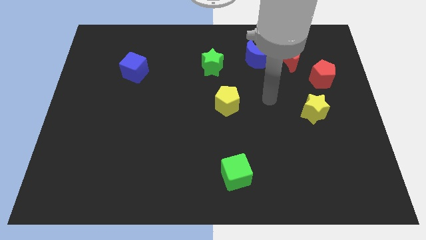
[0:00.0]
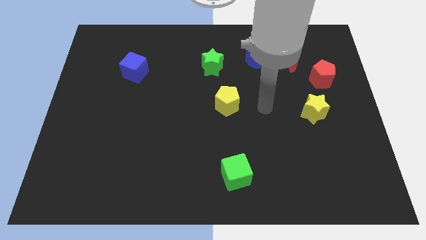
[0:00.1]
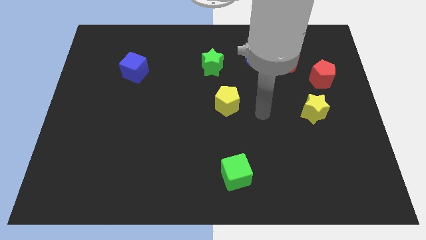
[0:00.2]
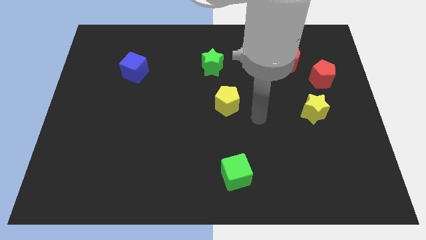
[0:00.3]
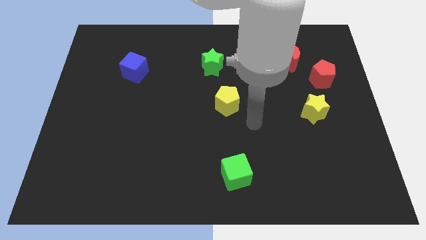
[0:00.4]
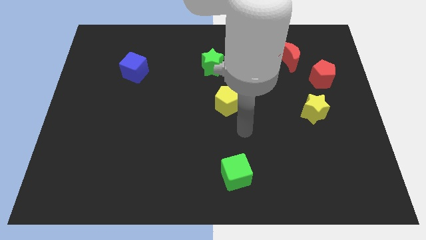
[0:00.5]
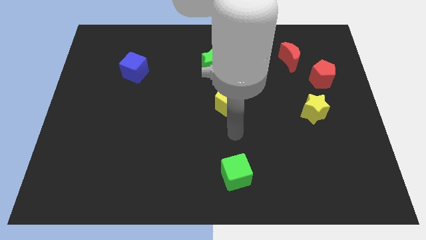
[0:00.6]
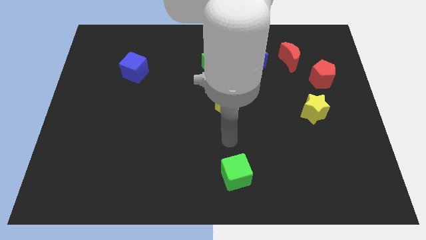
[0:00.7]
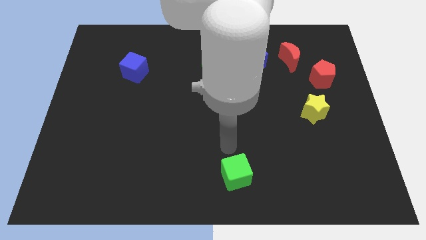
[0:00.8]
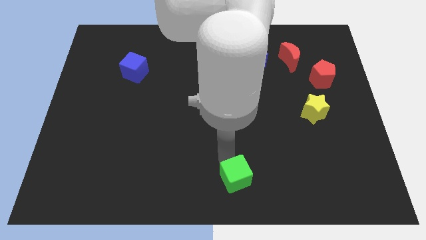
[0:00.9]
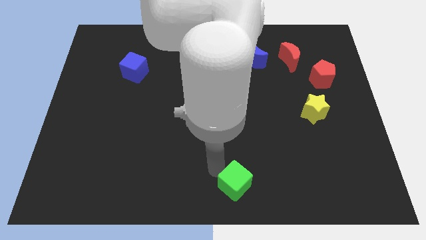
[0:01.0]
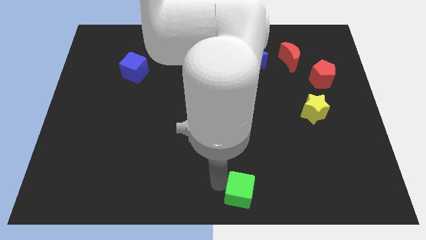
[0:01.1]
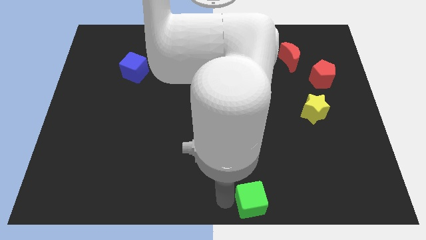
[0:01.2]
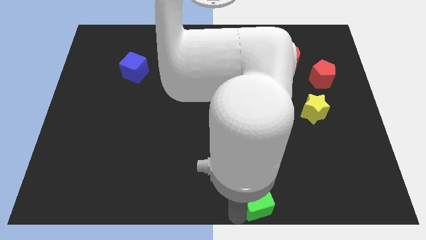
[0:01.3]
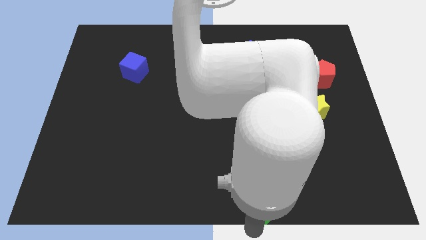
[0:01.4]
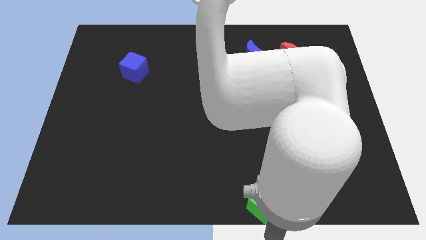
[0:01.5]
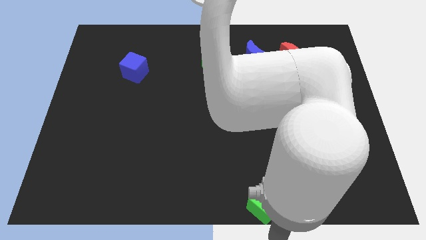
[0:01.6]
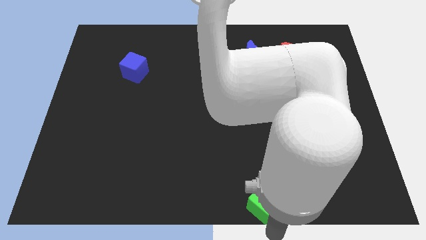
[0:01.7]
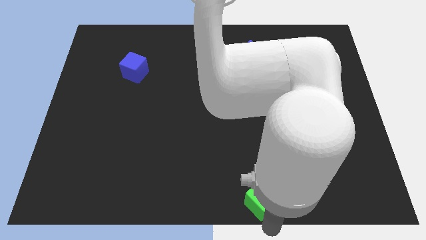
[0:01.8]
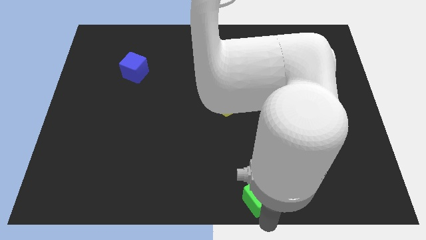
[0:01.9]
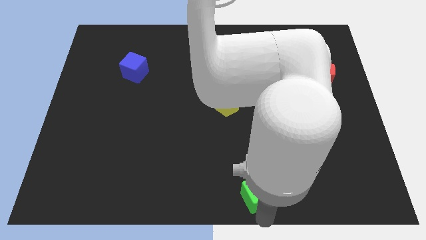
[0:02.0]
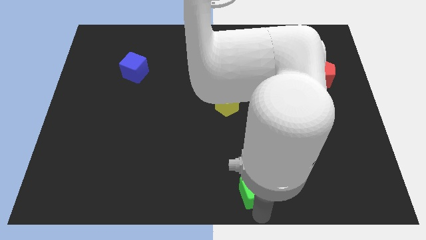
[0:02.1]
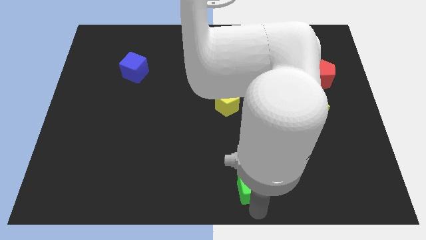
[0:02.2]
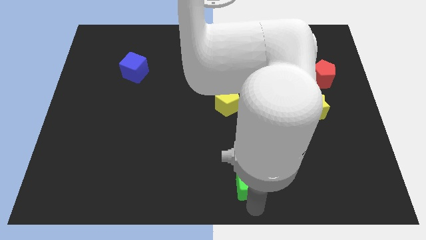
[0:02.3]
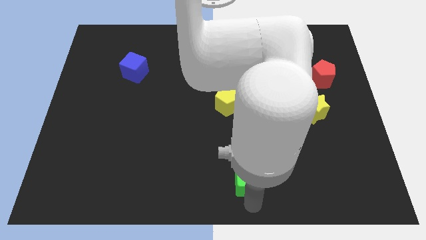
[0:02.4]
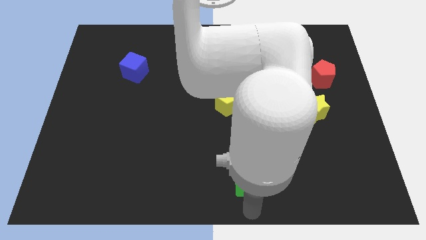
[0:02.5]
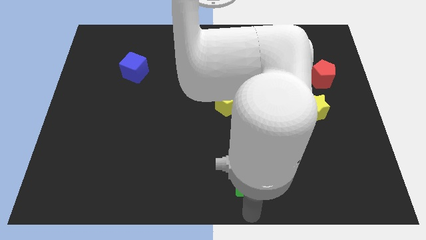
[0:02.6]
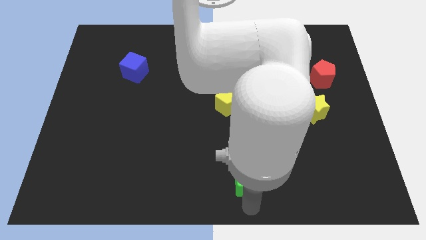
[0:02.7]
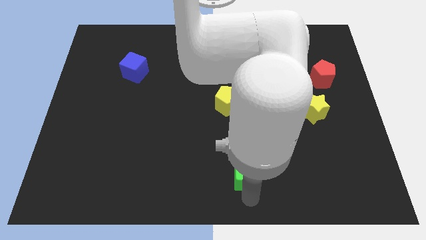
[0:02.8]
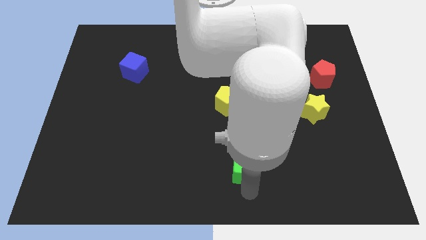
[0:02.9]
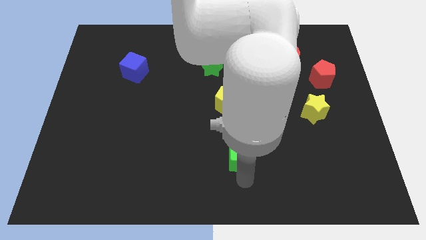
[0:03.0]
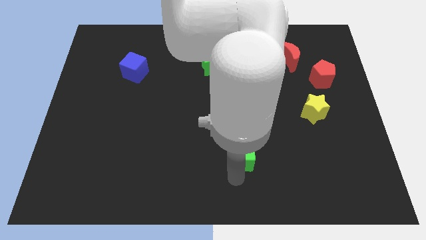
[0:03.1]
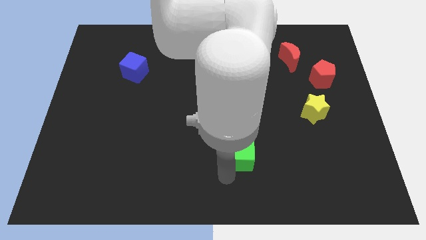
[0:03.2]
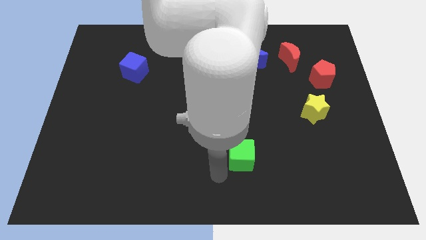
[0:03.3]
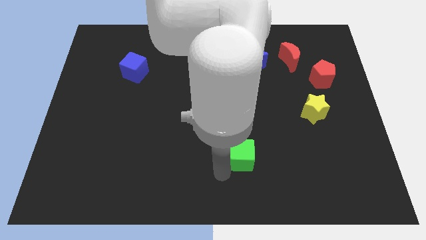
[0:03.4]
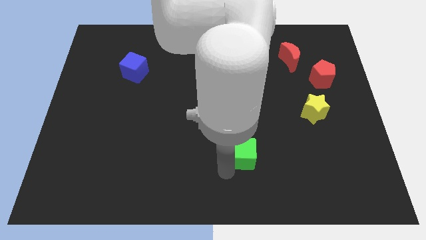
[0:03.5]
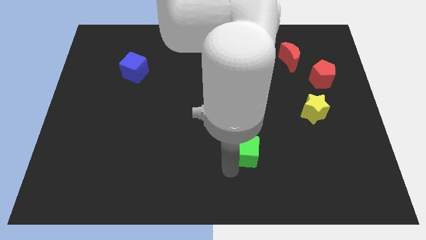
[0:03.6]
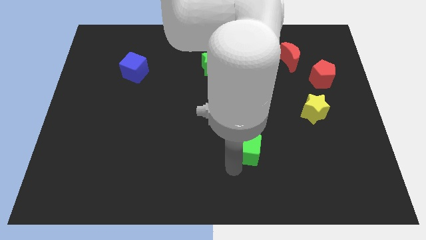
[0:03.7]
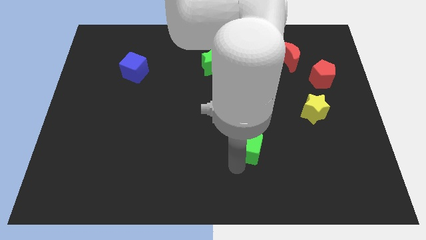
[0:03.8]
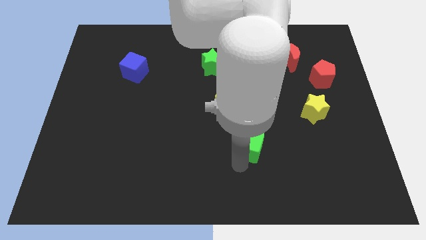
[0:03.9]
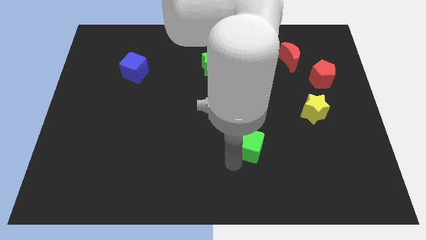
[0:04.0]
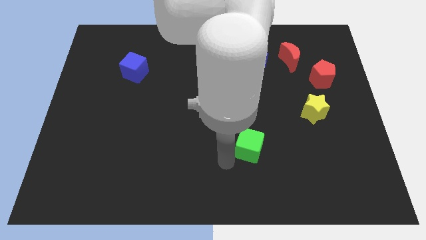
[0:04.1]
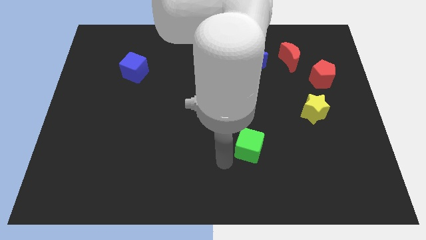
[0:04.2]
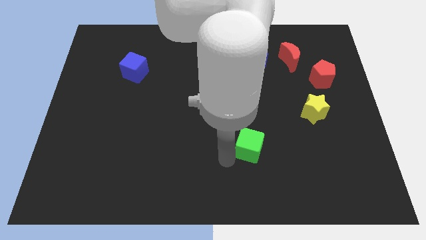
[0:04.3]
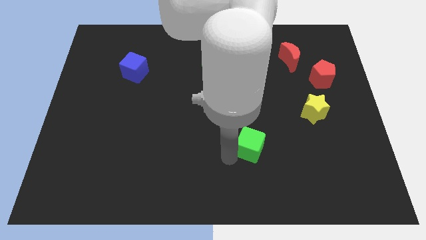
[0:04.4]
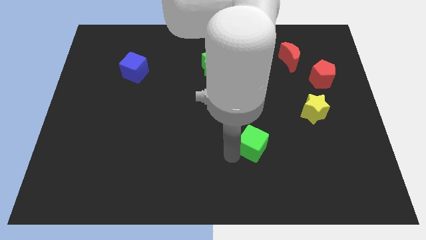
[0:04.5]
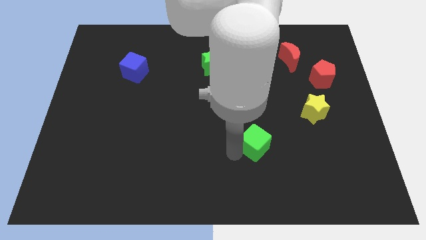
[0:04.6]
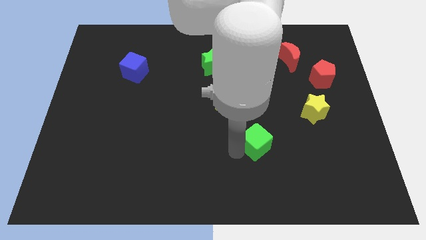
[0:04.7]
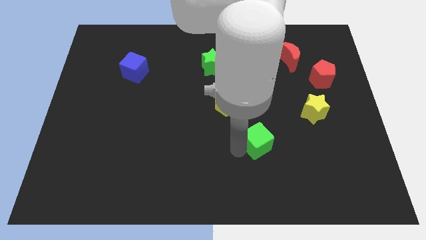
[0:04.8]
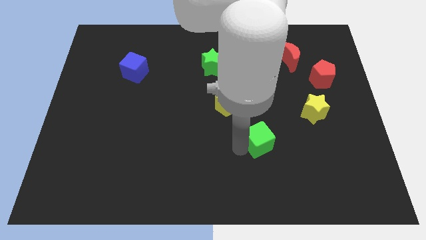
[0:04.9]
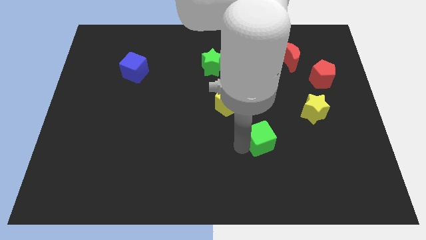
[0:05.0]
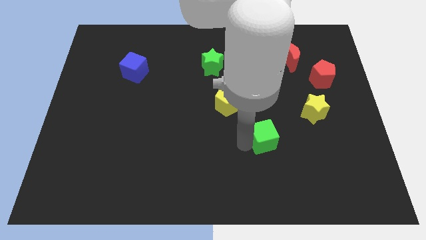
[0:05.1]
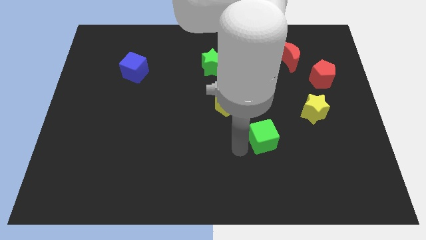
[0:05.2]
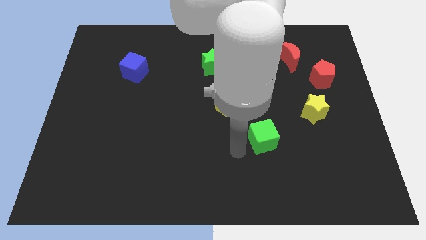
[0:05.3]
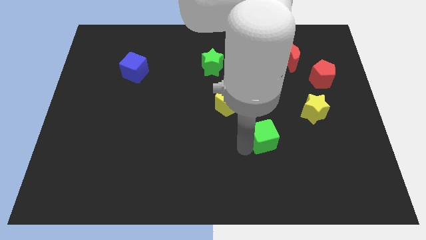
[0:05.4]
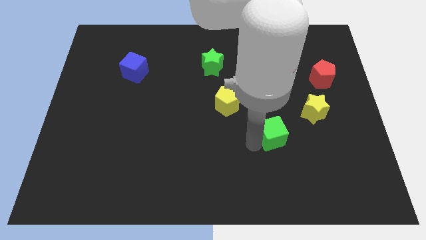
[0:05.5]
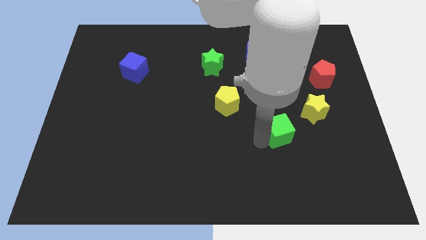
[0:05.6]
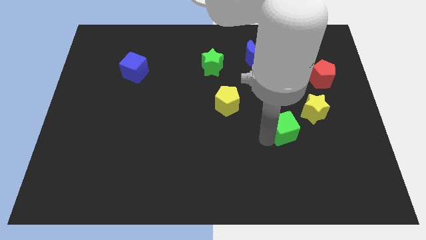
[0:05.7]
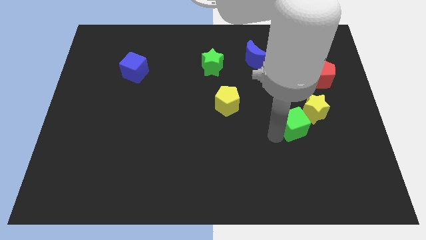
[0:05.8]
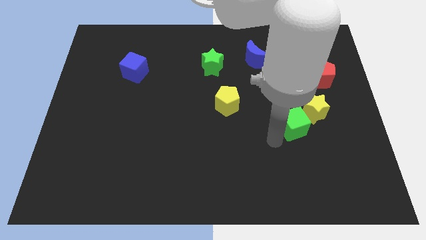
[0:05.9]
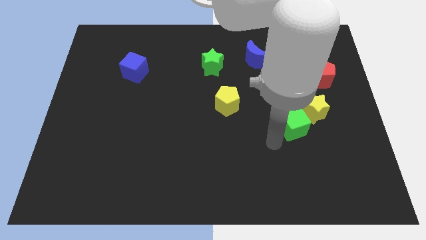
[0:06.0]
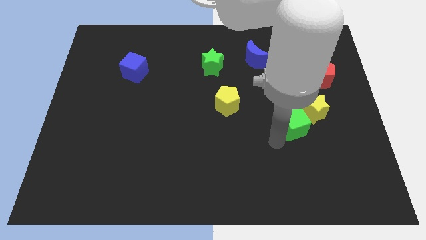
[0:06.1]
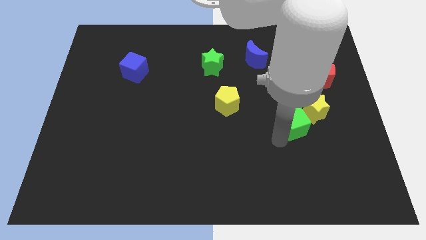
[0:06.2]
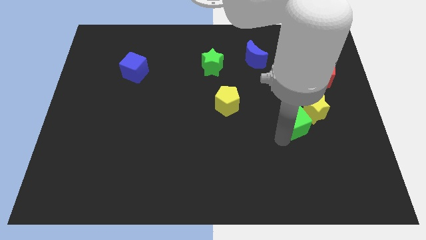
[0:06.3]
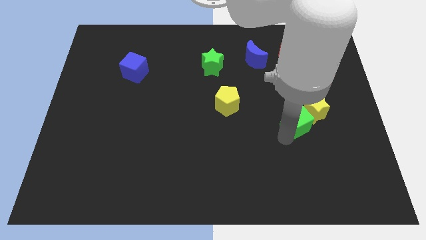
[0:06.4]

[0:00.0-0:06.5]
put the green cube to the yellow star

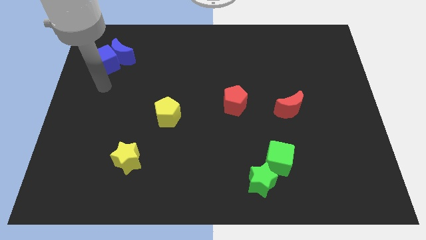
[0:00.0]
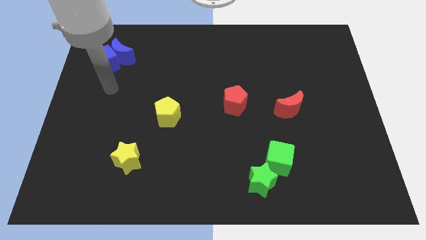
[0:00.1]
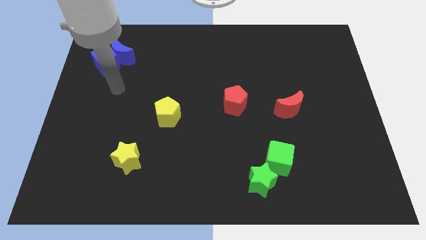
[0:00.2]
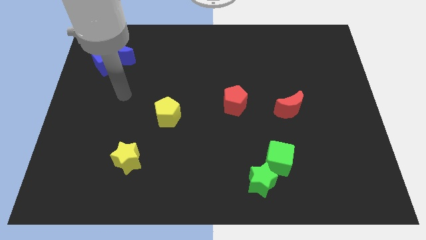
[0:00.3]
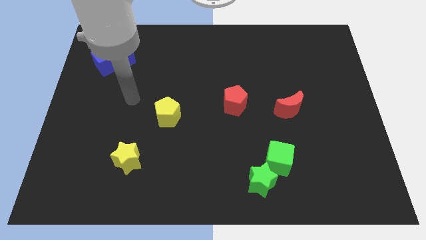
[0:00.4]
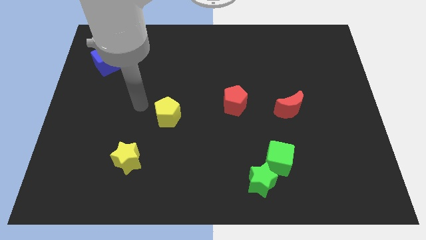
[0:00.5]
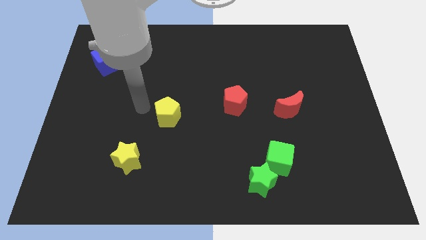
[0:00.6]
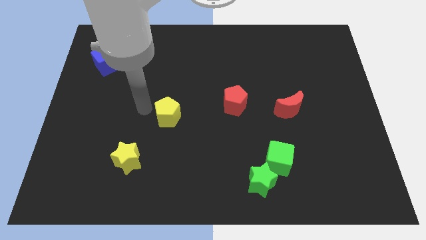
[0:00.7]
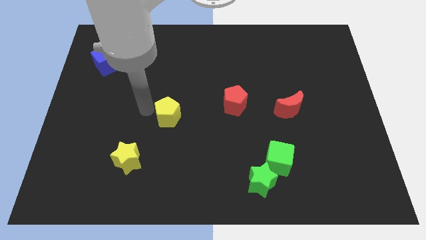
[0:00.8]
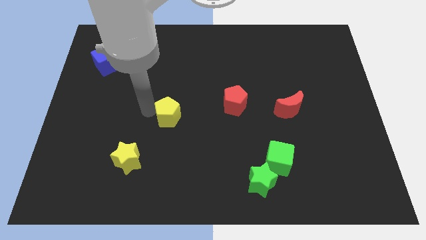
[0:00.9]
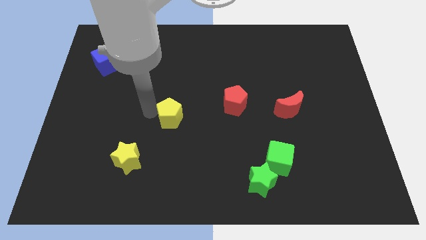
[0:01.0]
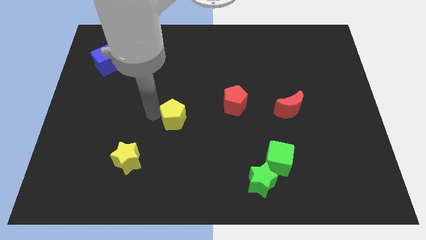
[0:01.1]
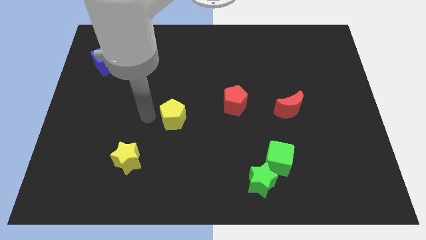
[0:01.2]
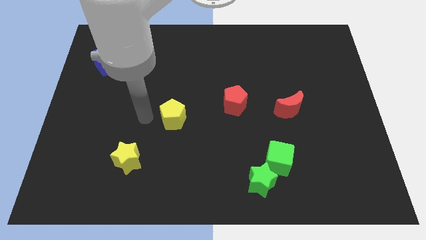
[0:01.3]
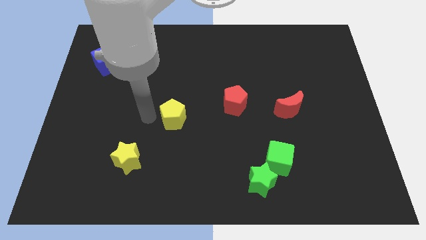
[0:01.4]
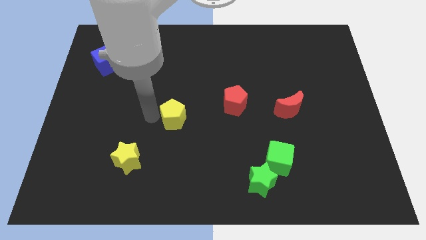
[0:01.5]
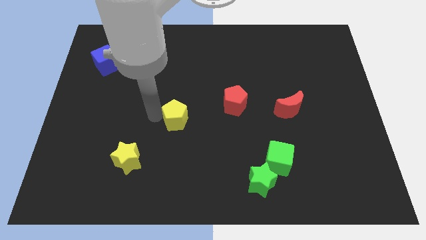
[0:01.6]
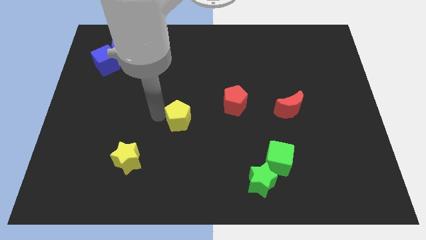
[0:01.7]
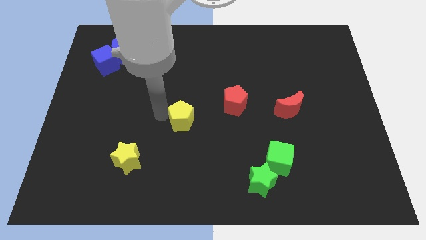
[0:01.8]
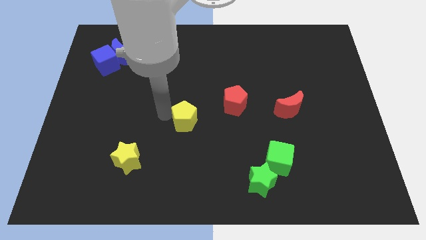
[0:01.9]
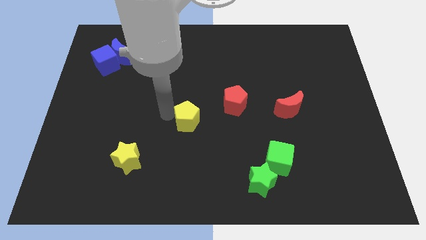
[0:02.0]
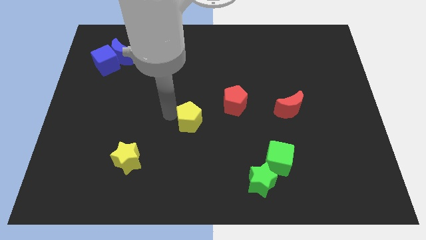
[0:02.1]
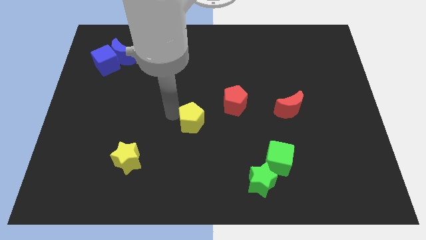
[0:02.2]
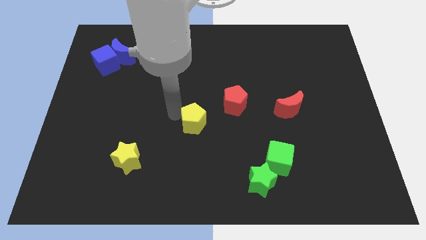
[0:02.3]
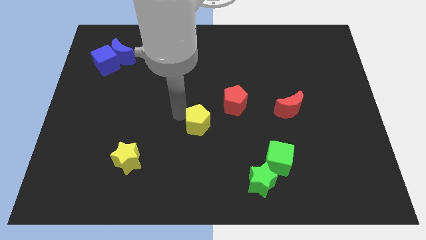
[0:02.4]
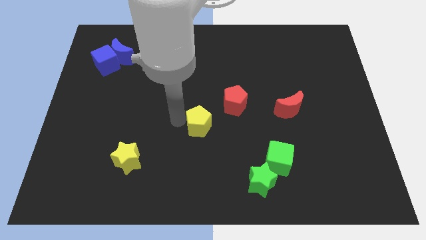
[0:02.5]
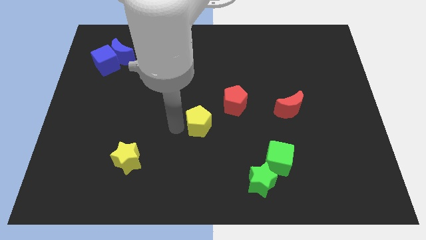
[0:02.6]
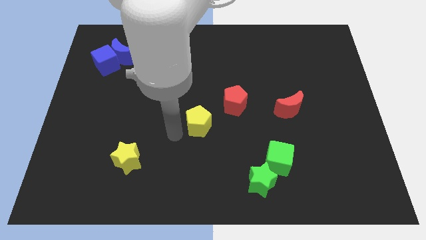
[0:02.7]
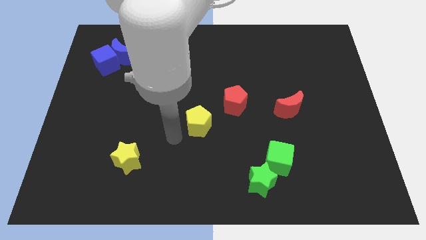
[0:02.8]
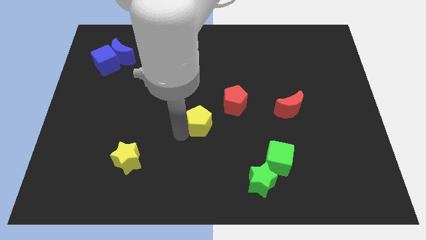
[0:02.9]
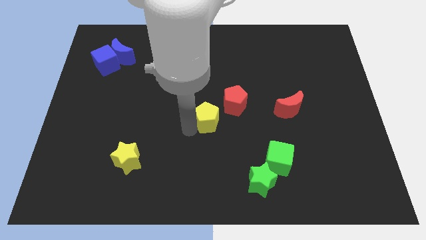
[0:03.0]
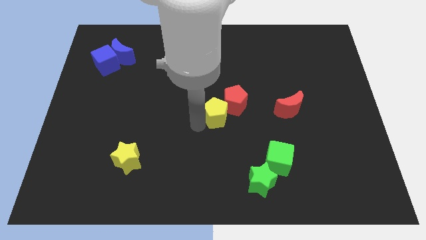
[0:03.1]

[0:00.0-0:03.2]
slide the yellow pentagon to the red pentagon
